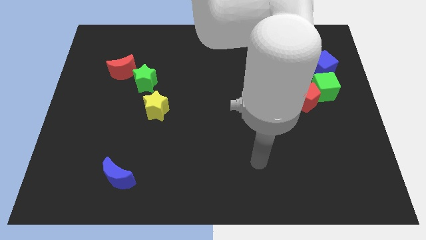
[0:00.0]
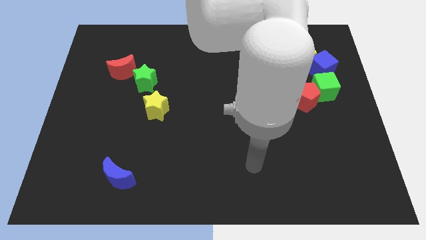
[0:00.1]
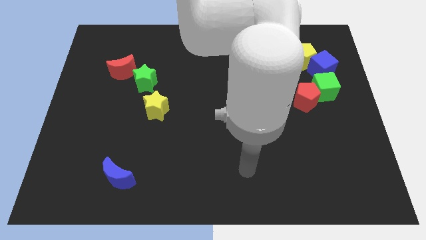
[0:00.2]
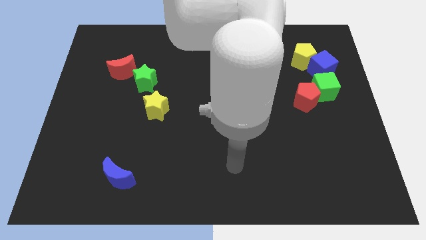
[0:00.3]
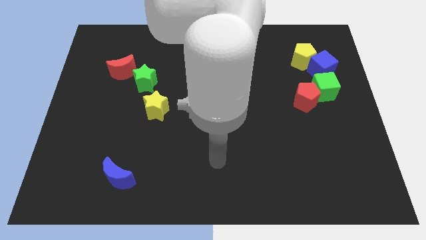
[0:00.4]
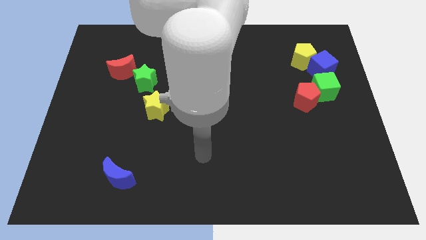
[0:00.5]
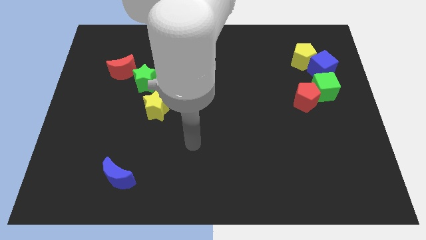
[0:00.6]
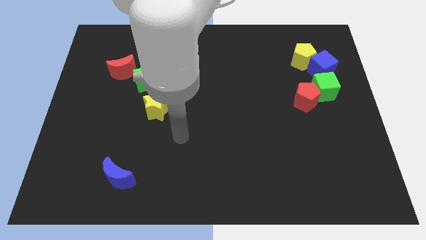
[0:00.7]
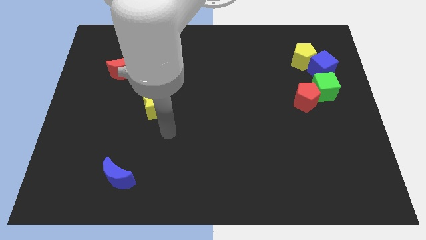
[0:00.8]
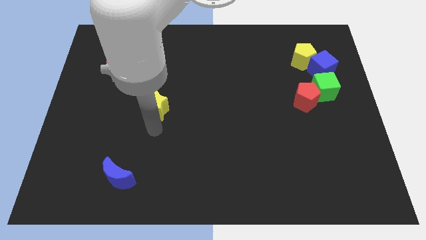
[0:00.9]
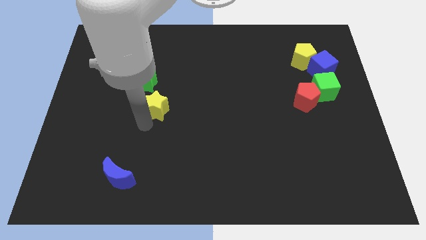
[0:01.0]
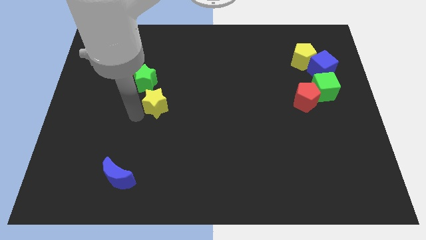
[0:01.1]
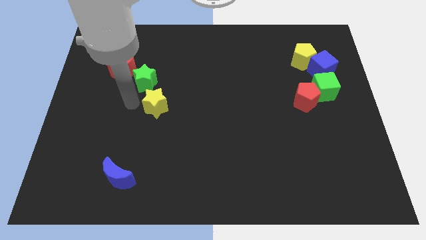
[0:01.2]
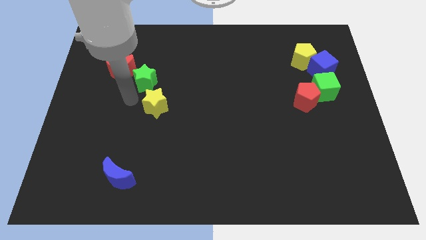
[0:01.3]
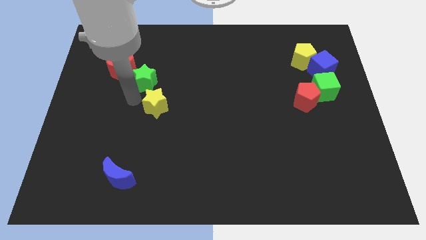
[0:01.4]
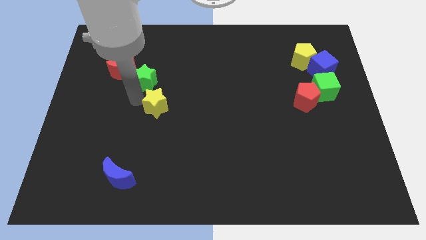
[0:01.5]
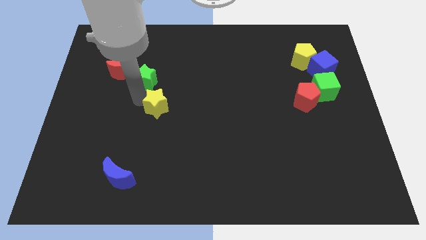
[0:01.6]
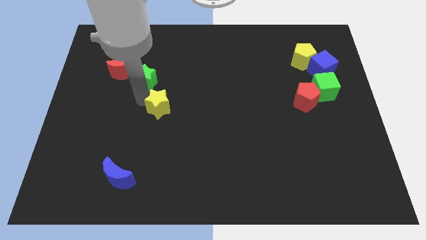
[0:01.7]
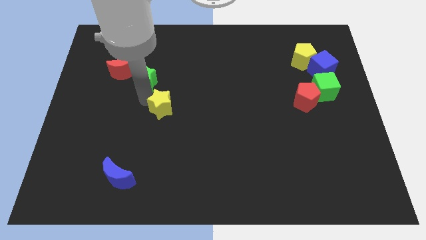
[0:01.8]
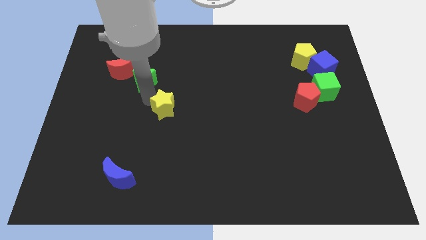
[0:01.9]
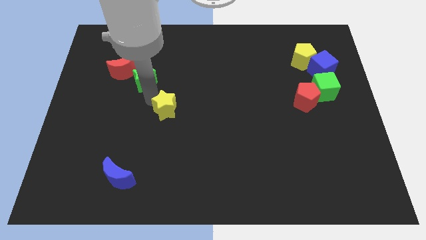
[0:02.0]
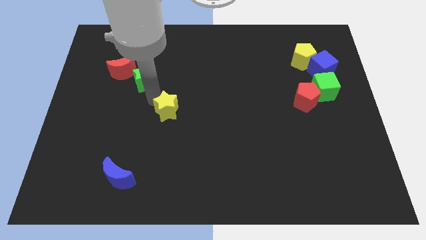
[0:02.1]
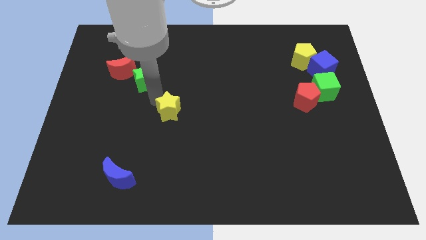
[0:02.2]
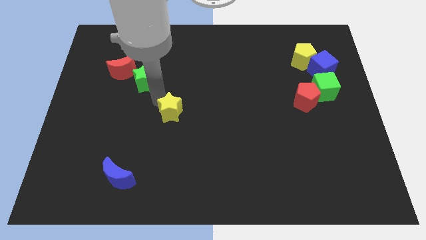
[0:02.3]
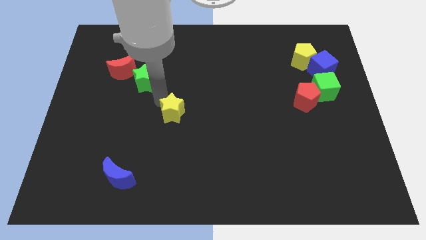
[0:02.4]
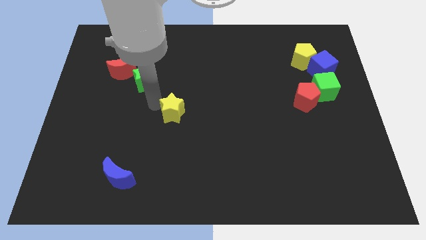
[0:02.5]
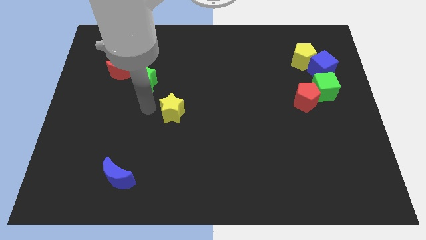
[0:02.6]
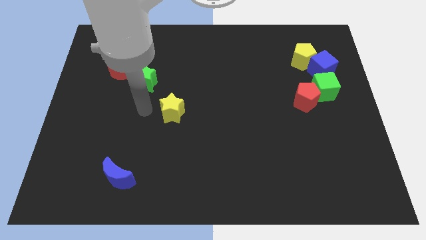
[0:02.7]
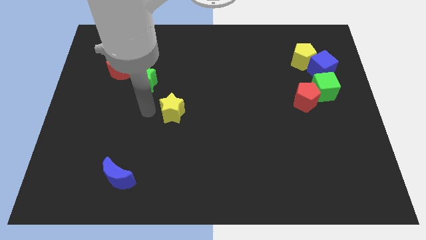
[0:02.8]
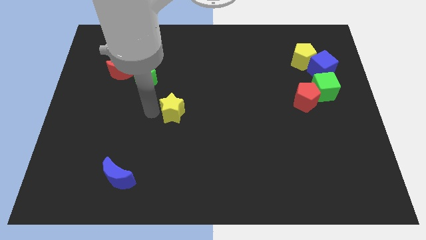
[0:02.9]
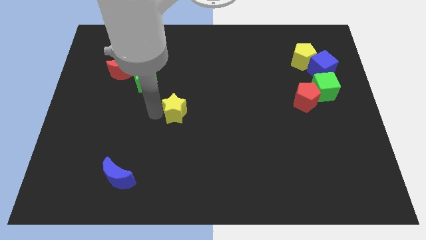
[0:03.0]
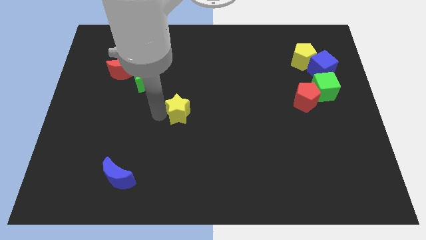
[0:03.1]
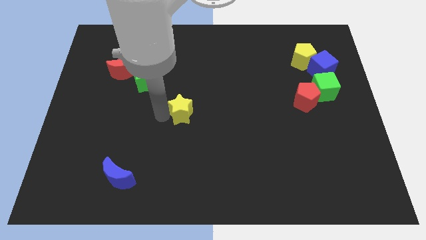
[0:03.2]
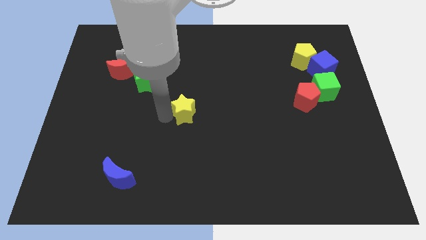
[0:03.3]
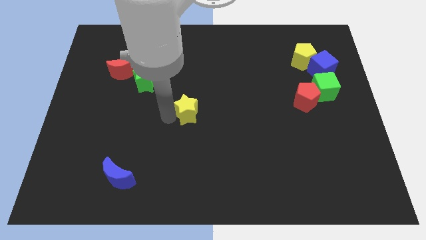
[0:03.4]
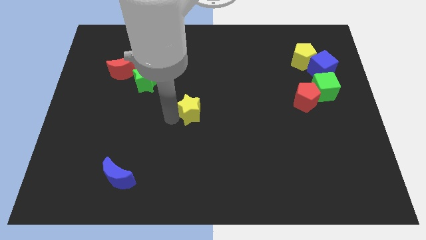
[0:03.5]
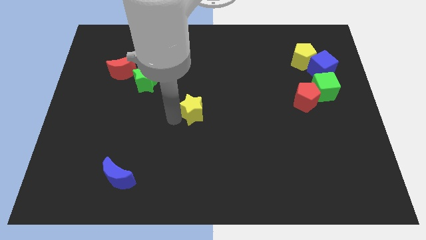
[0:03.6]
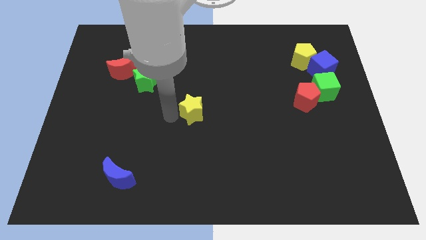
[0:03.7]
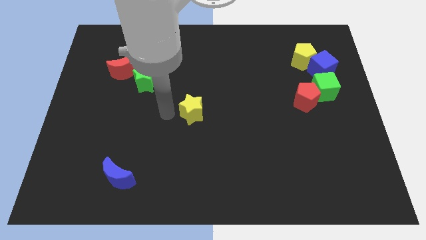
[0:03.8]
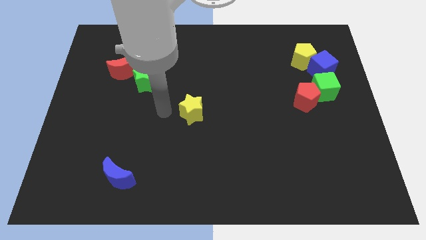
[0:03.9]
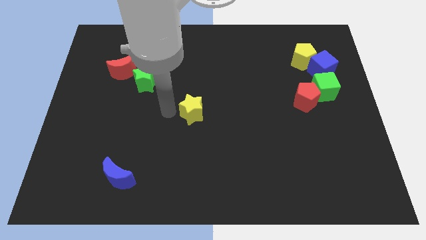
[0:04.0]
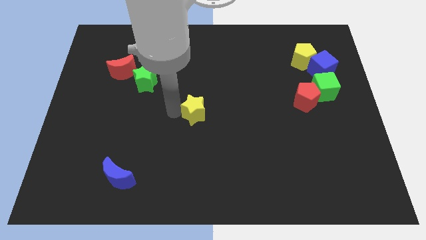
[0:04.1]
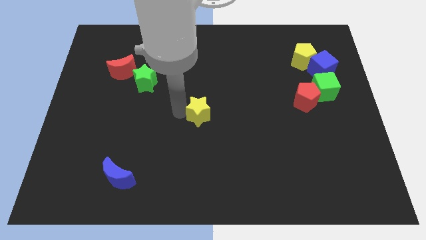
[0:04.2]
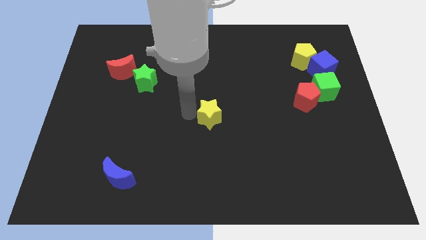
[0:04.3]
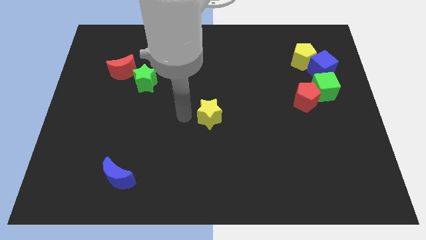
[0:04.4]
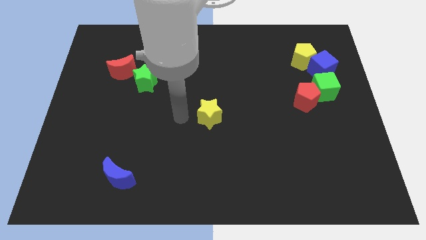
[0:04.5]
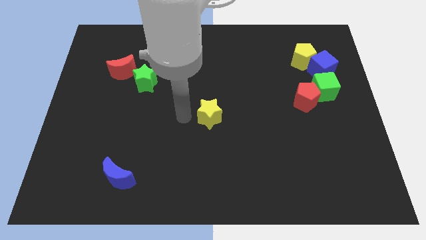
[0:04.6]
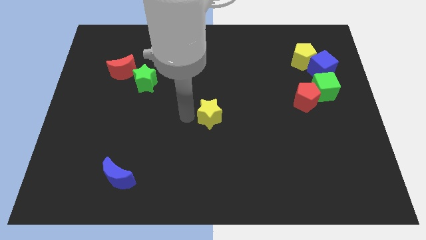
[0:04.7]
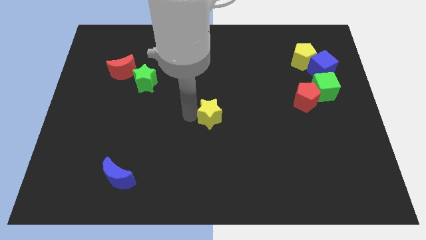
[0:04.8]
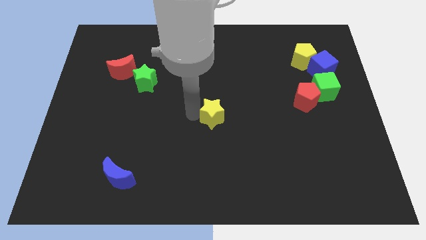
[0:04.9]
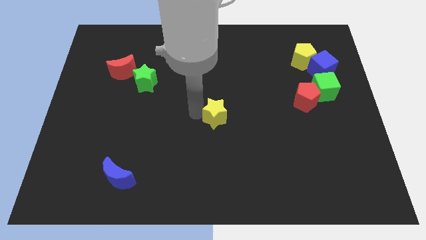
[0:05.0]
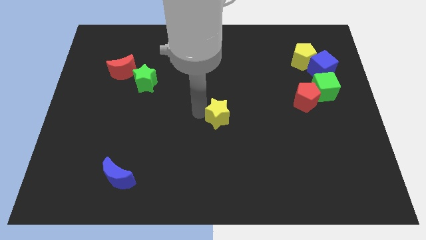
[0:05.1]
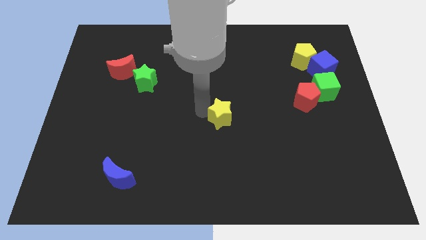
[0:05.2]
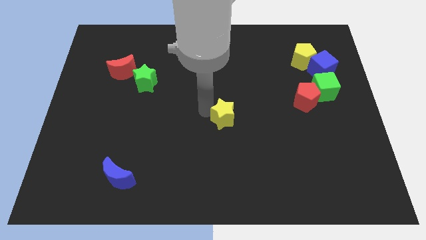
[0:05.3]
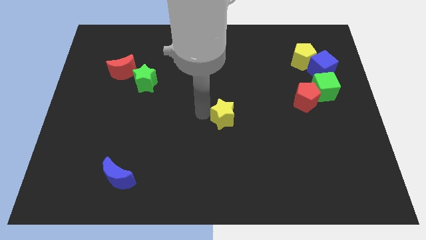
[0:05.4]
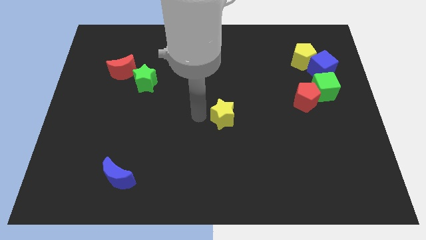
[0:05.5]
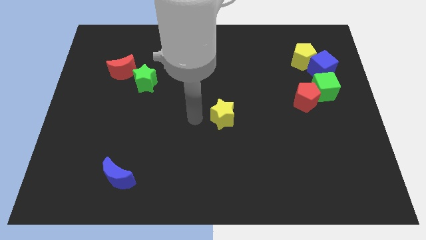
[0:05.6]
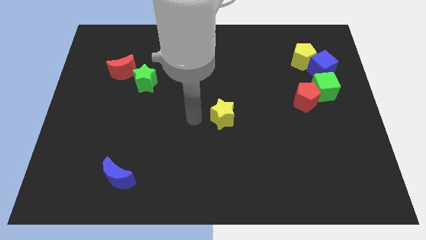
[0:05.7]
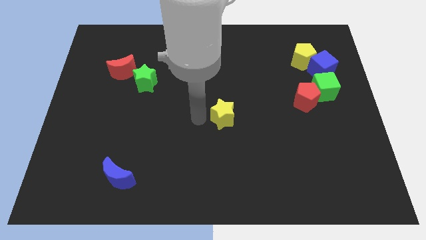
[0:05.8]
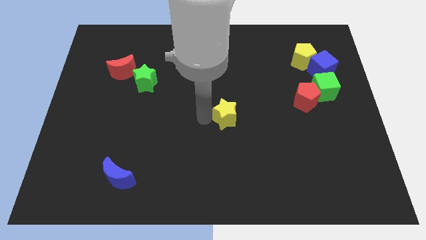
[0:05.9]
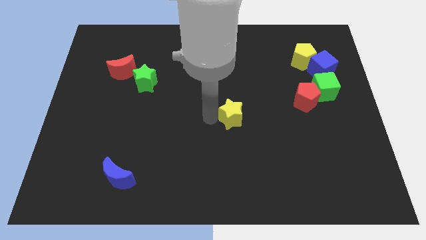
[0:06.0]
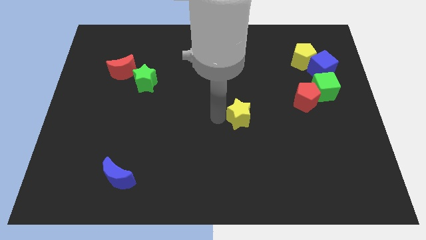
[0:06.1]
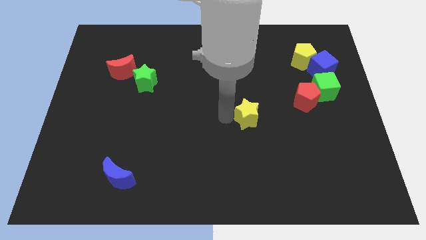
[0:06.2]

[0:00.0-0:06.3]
slide the yellow star to the right

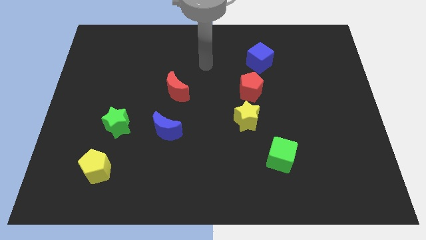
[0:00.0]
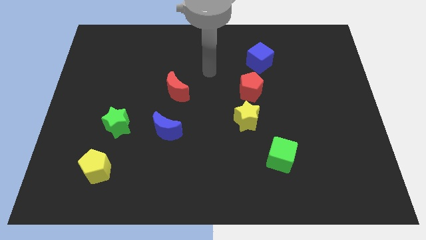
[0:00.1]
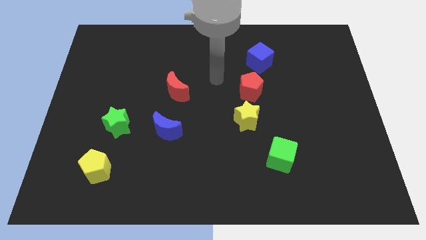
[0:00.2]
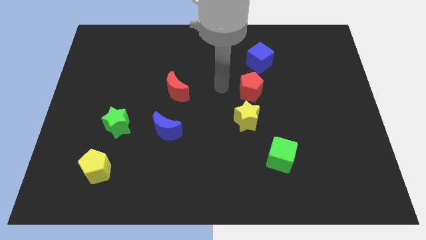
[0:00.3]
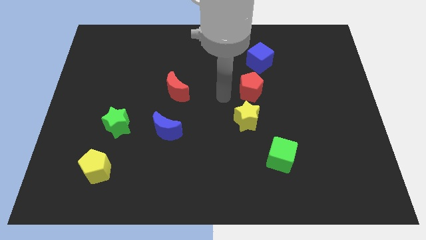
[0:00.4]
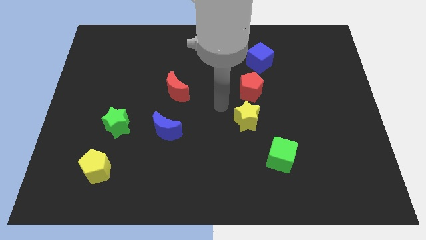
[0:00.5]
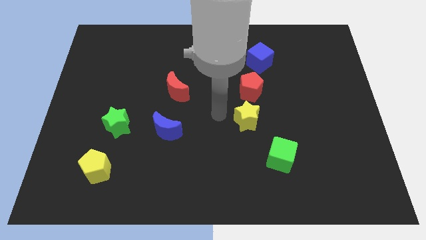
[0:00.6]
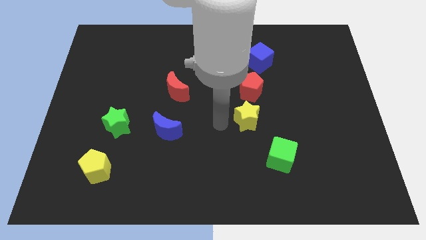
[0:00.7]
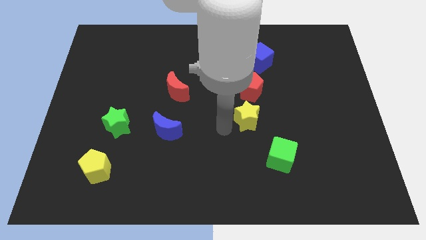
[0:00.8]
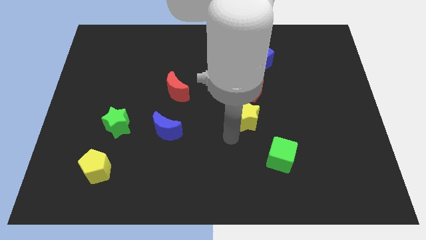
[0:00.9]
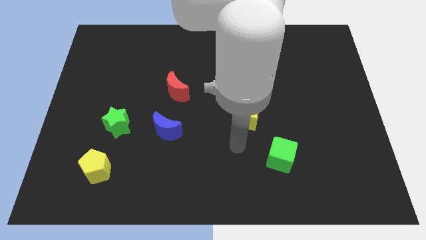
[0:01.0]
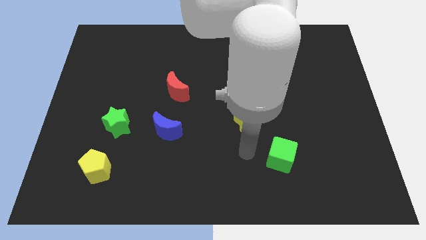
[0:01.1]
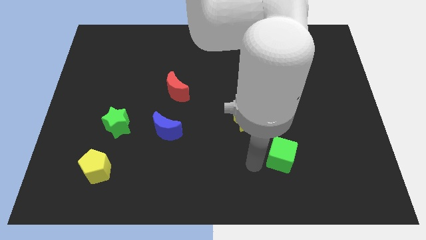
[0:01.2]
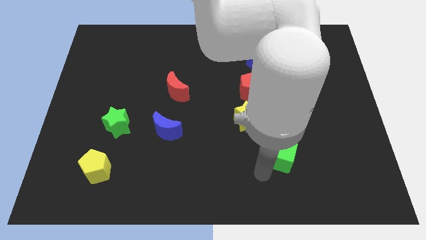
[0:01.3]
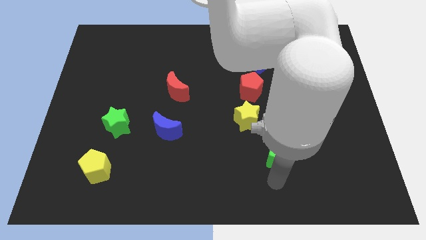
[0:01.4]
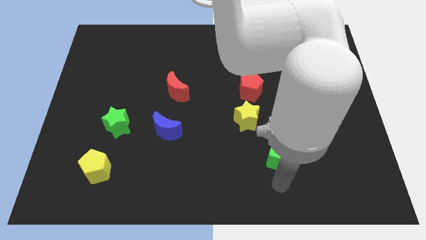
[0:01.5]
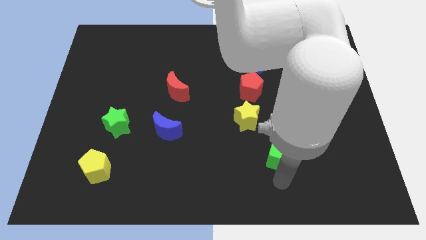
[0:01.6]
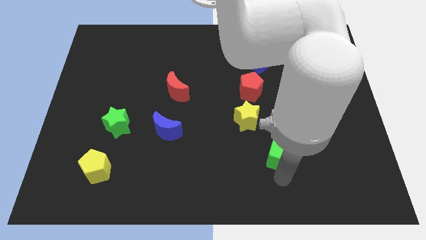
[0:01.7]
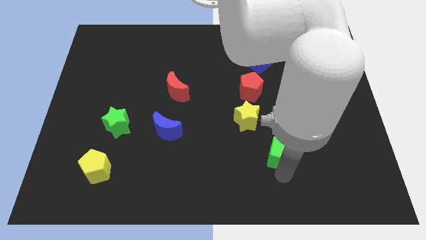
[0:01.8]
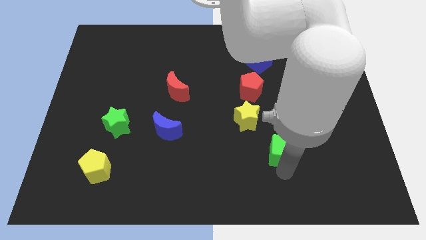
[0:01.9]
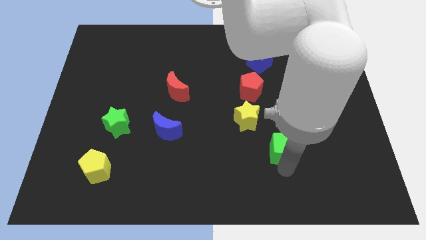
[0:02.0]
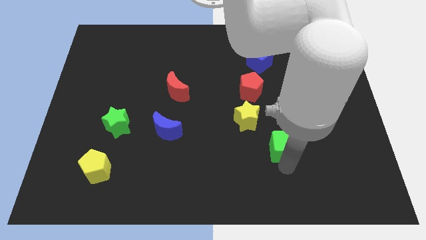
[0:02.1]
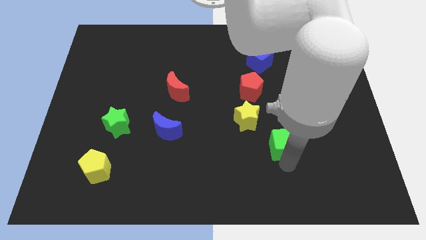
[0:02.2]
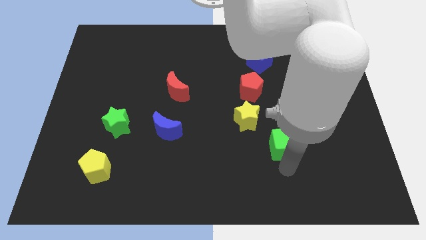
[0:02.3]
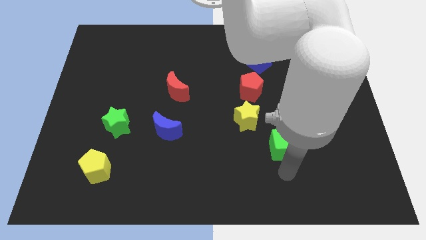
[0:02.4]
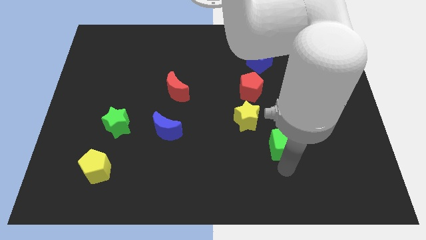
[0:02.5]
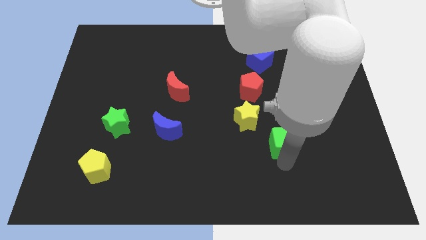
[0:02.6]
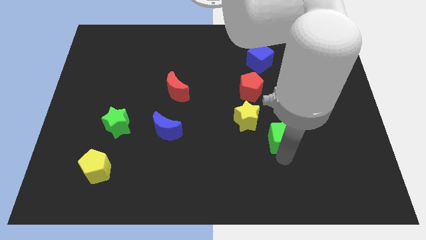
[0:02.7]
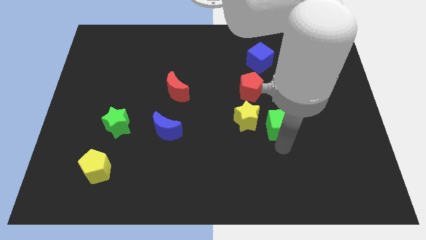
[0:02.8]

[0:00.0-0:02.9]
slide the green cube up a little bit
